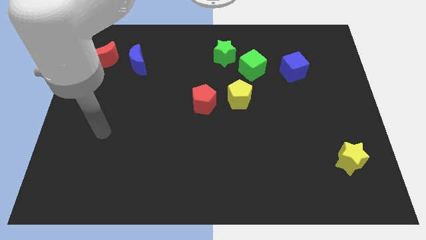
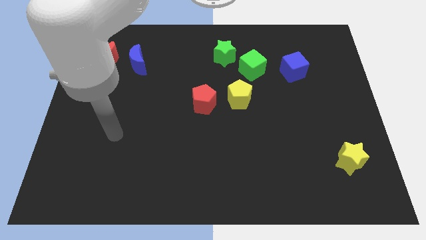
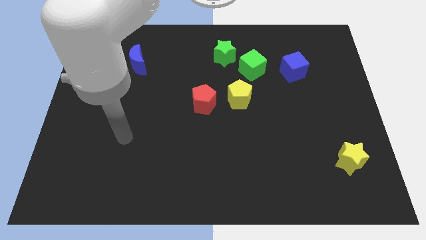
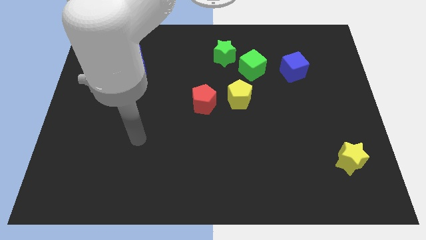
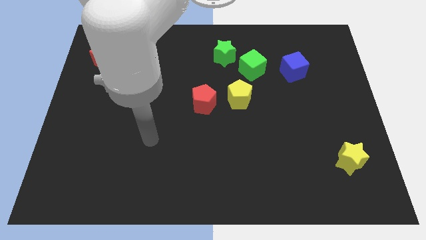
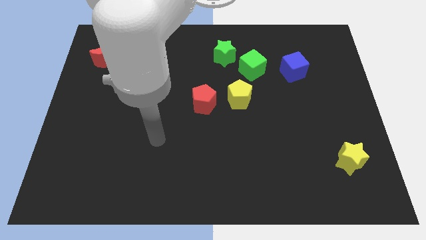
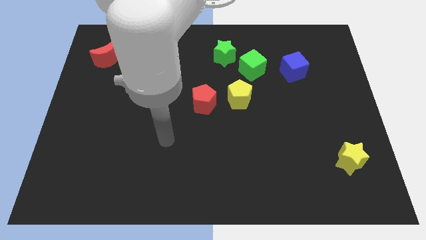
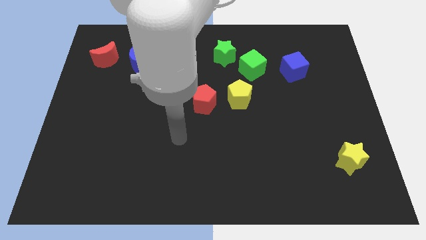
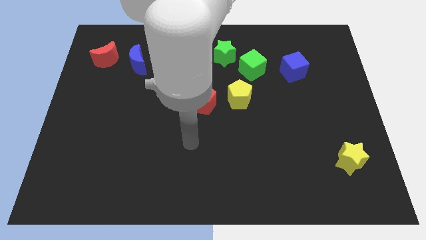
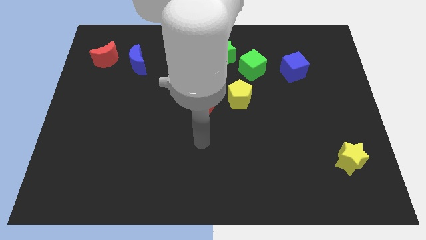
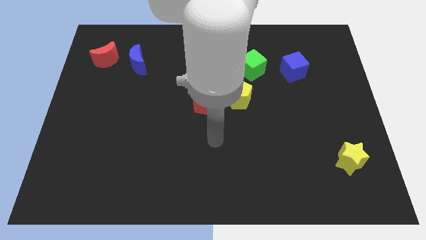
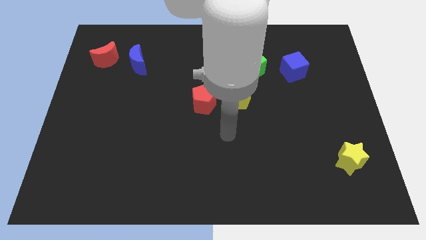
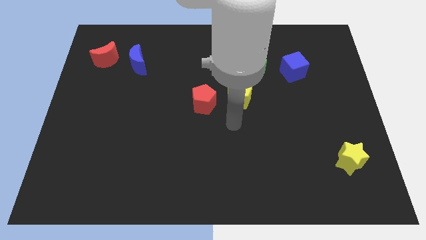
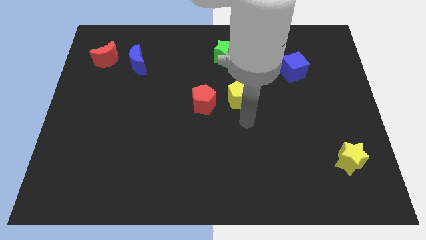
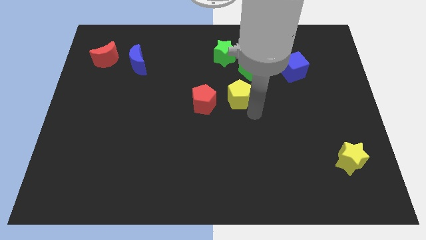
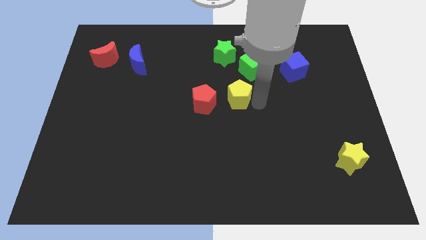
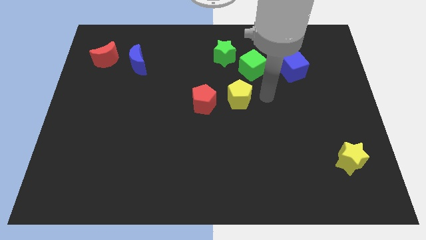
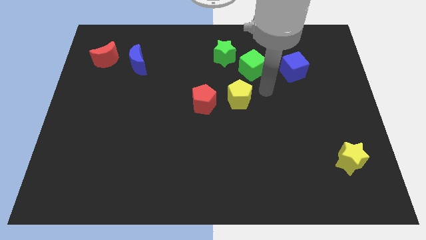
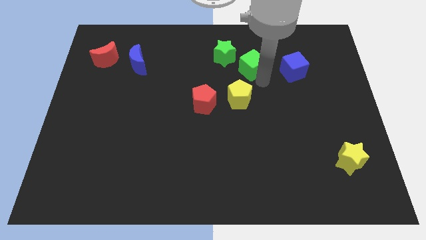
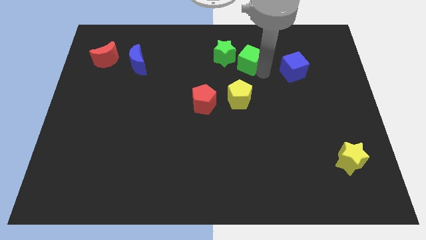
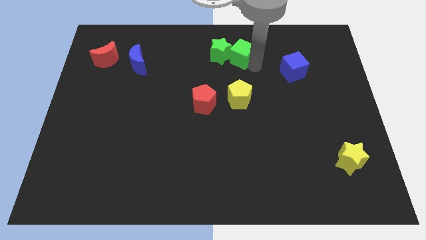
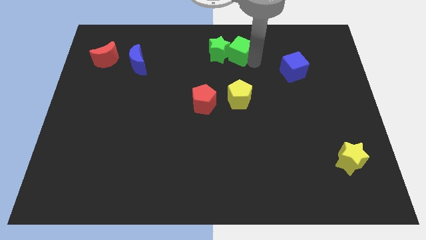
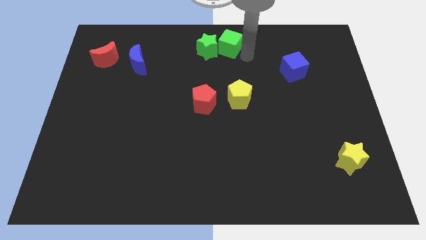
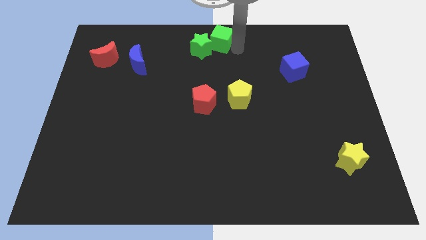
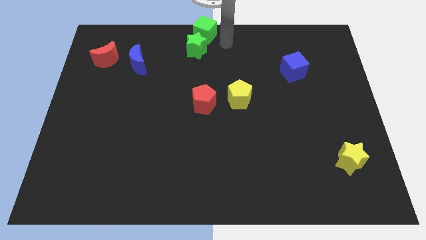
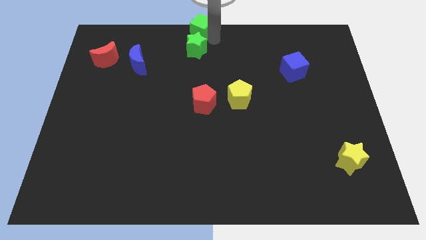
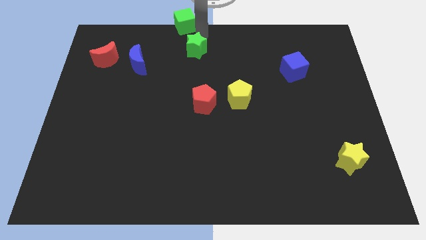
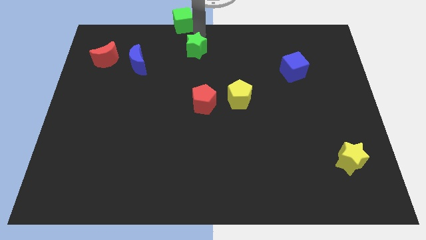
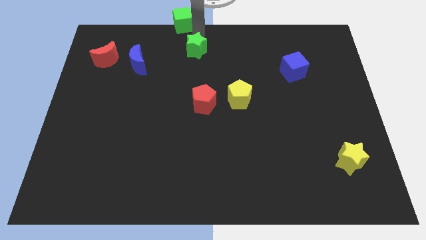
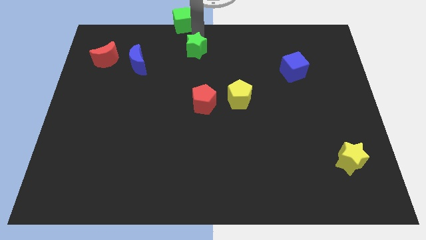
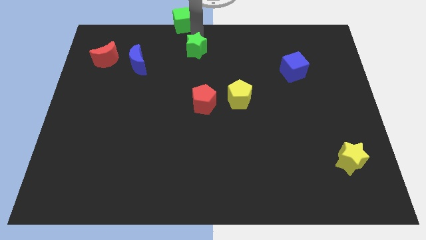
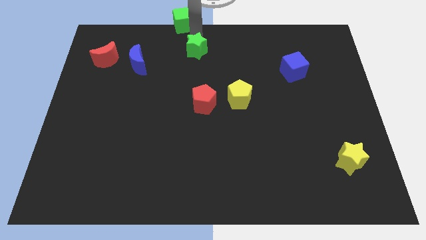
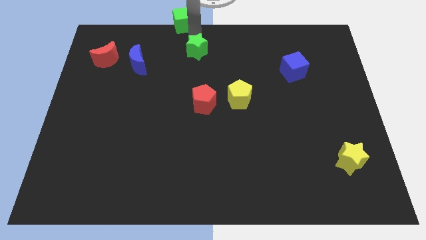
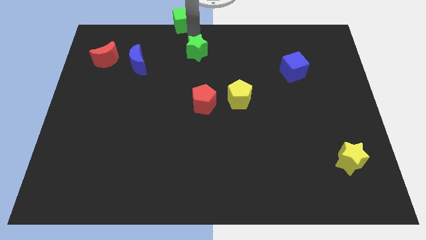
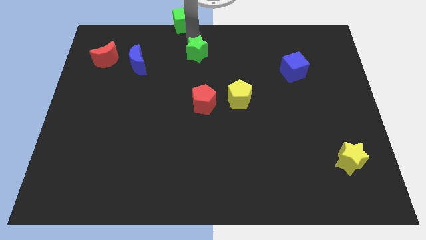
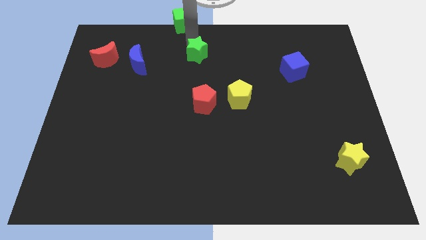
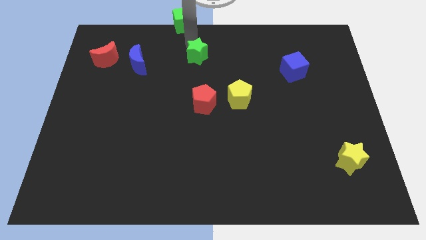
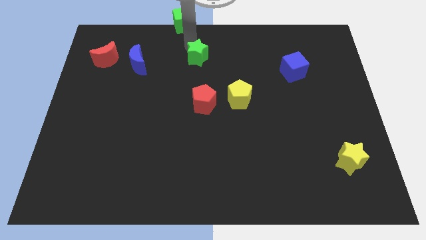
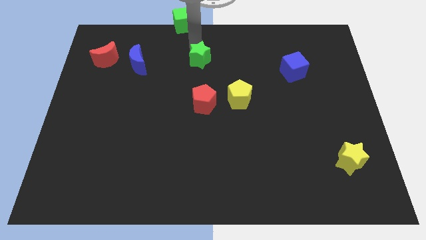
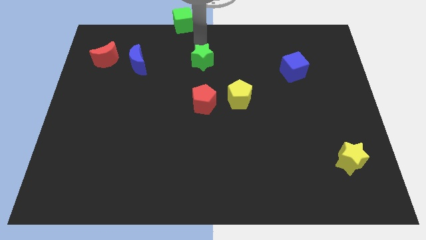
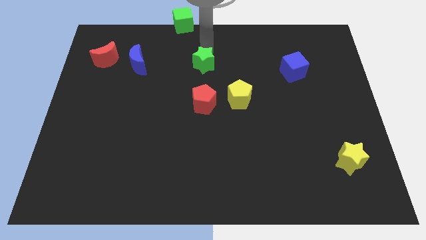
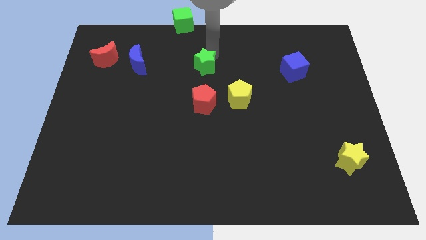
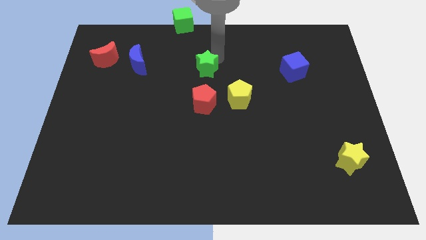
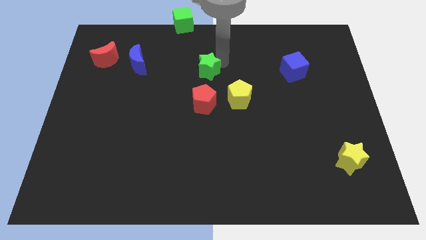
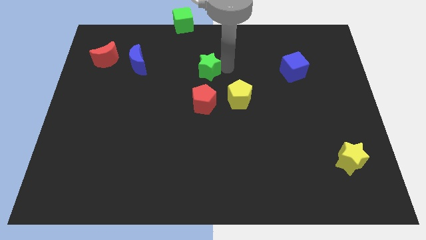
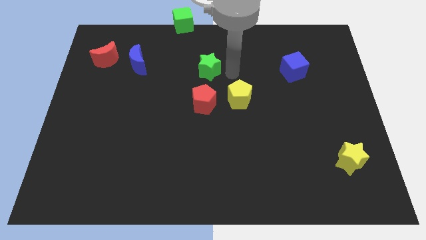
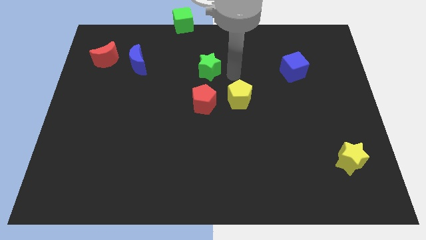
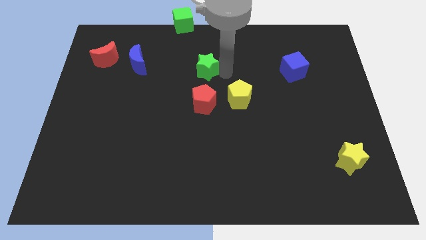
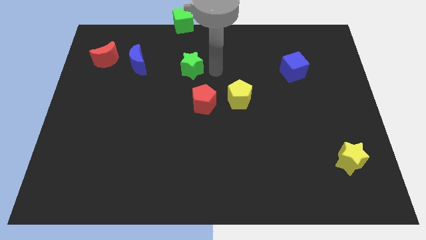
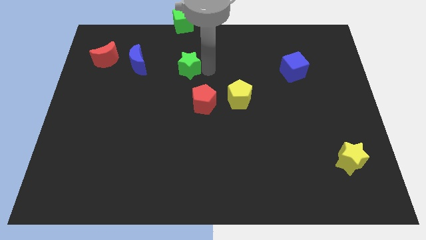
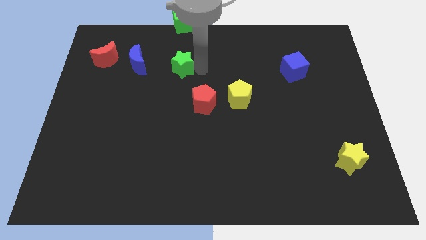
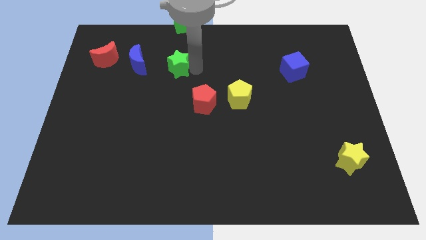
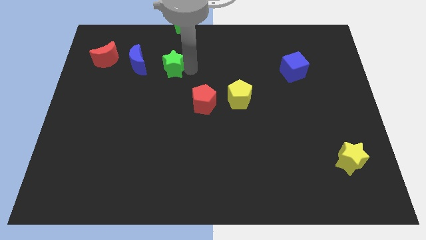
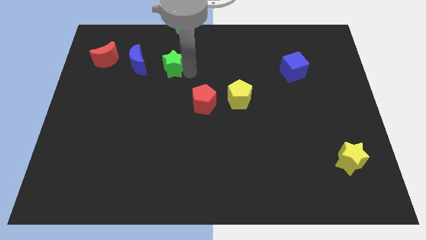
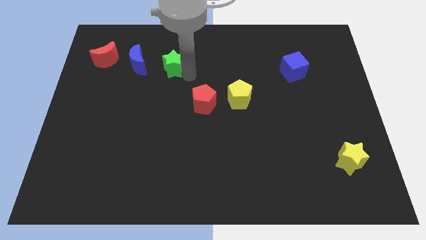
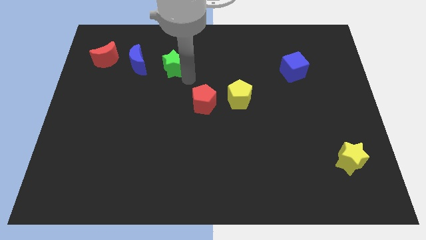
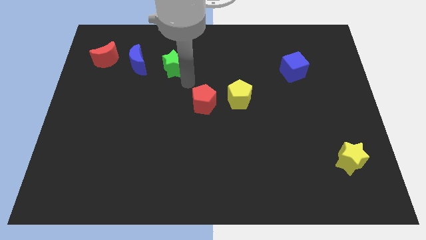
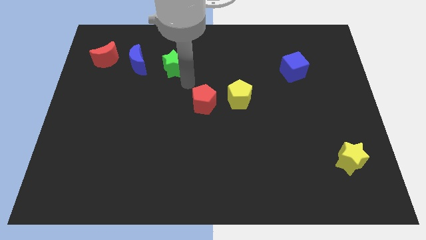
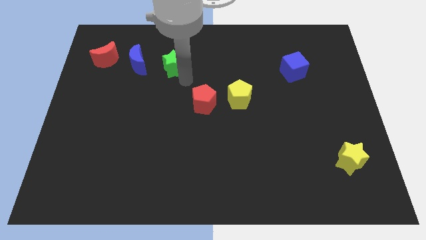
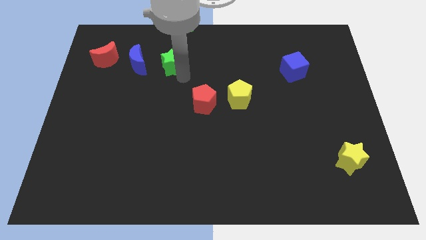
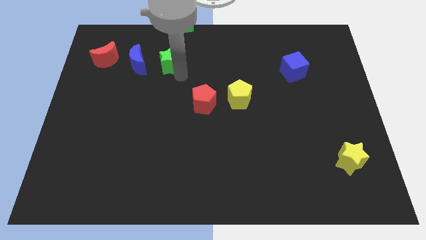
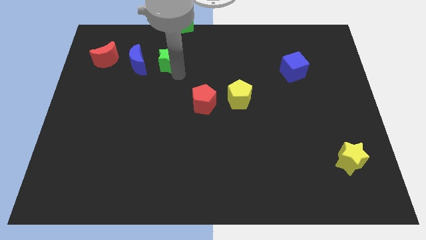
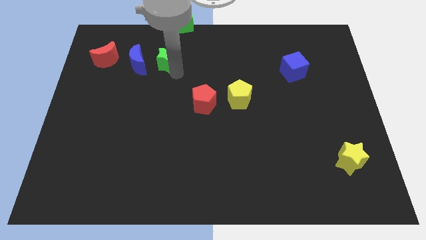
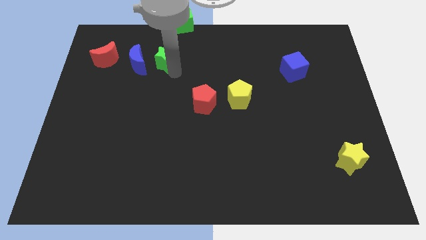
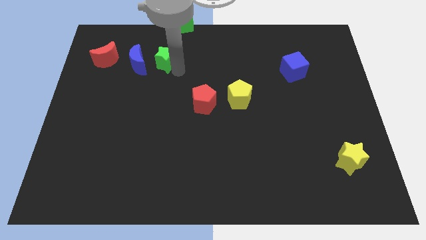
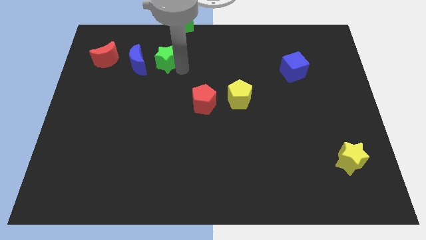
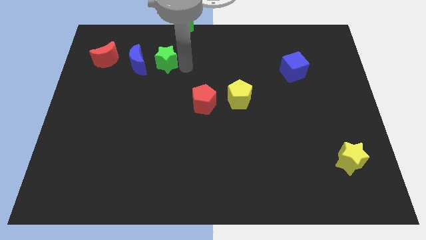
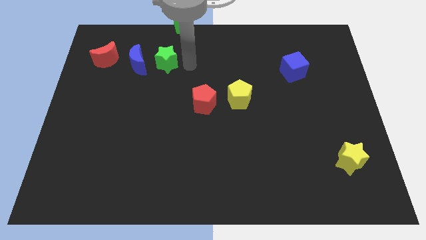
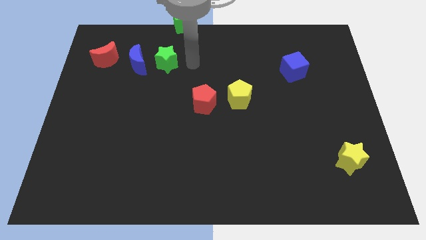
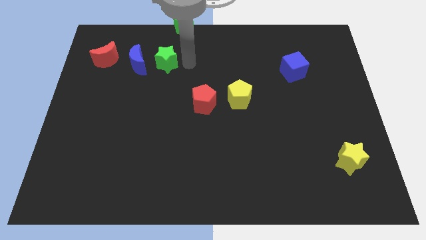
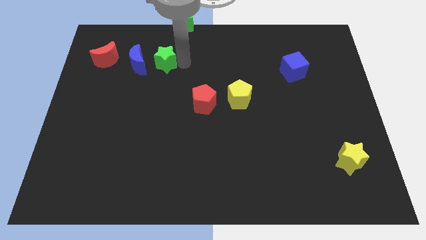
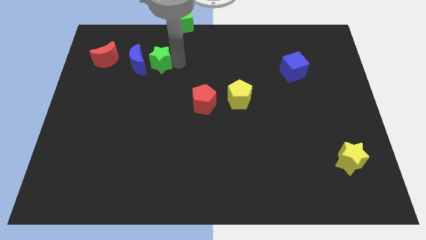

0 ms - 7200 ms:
put the green star close to the blue moon
